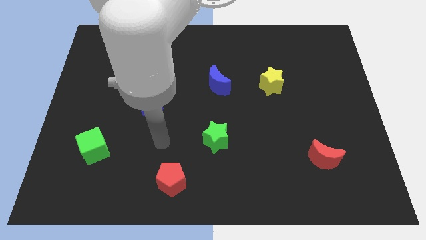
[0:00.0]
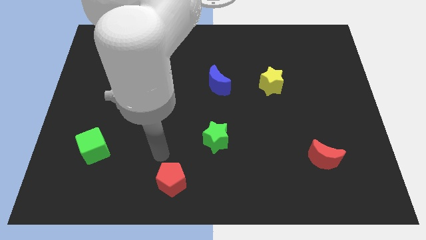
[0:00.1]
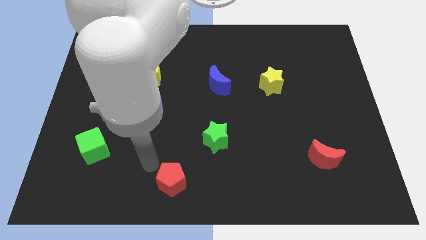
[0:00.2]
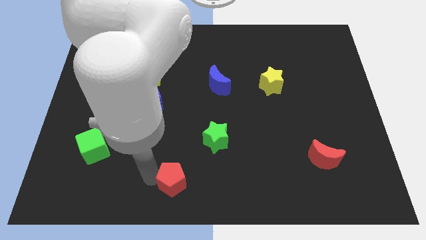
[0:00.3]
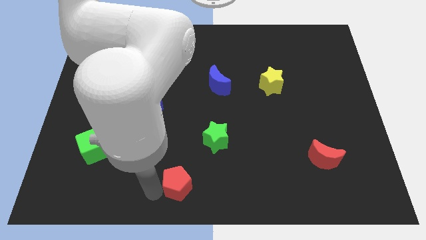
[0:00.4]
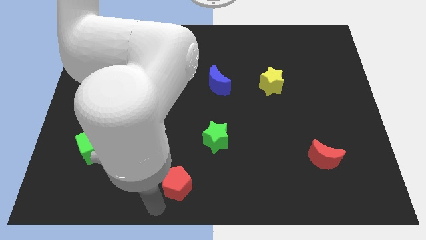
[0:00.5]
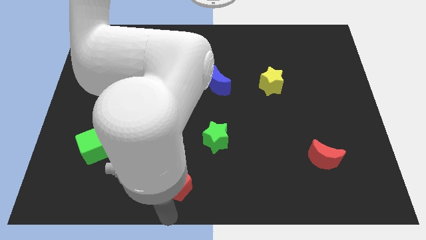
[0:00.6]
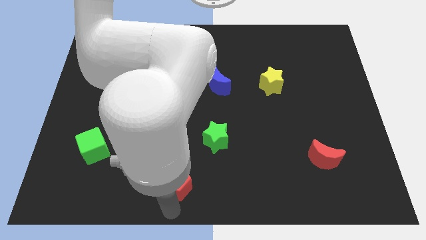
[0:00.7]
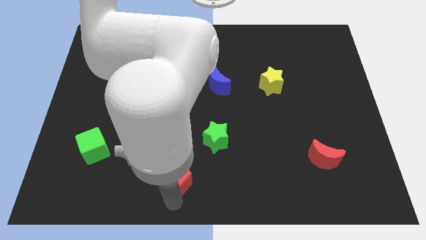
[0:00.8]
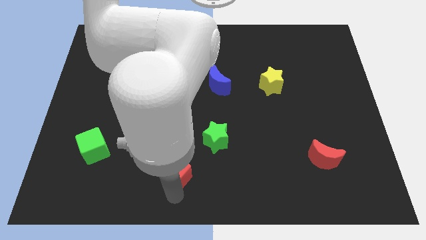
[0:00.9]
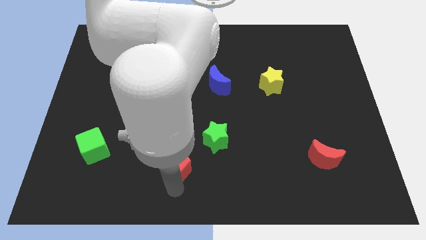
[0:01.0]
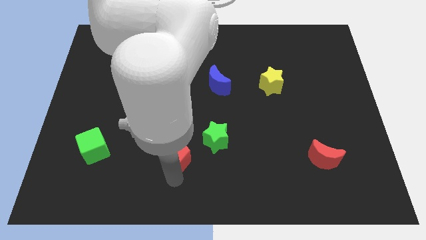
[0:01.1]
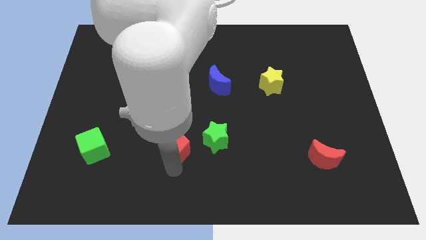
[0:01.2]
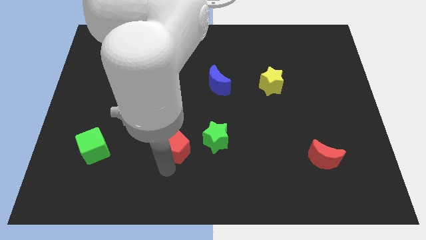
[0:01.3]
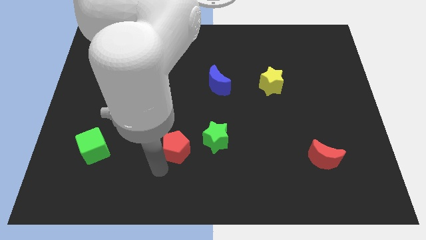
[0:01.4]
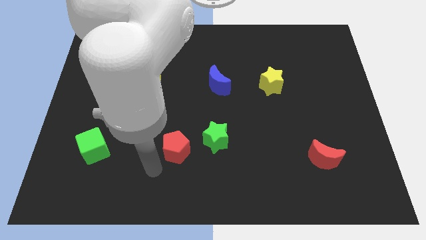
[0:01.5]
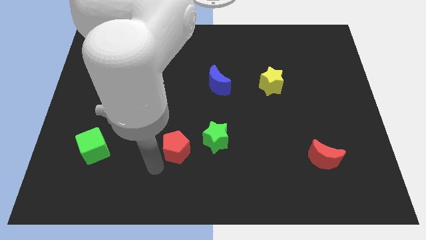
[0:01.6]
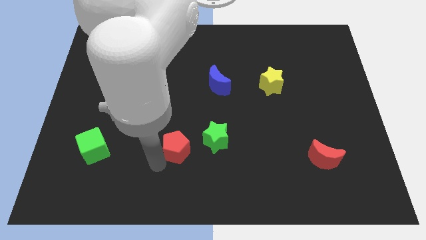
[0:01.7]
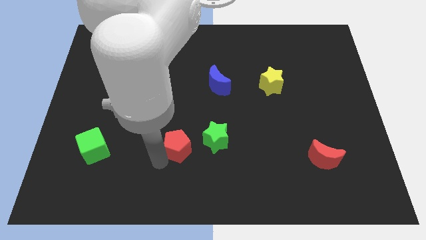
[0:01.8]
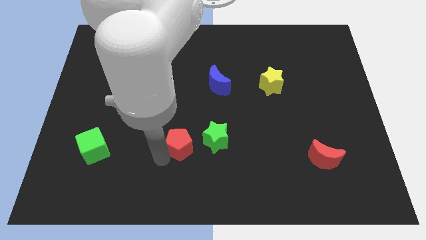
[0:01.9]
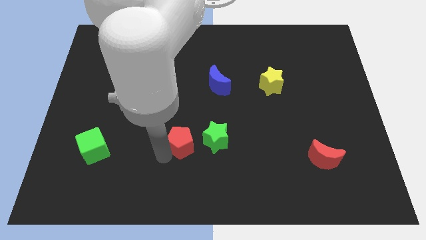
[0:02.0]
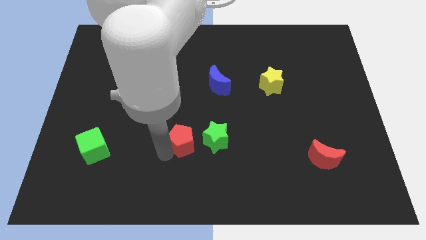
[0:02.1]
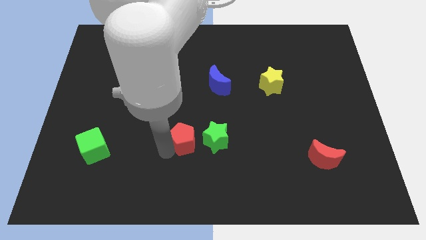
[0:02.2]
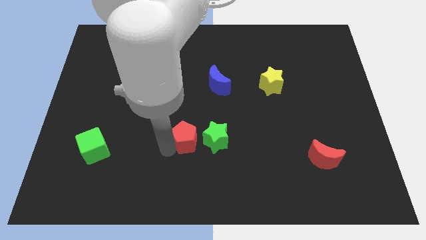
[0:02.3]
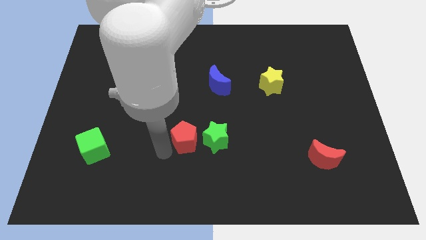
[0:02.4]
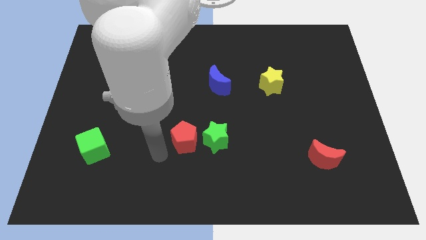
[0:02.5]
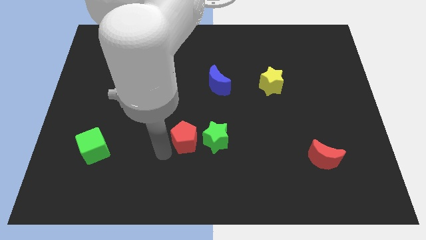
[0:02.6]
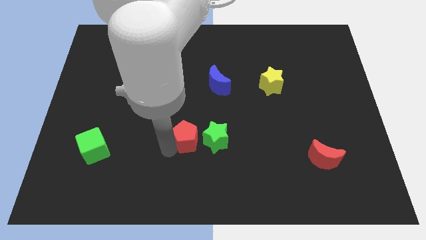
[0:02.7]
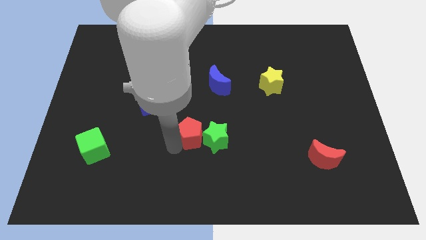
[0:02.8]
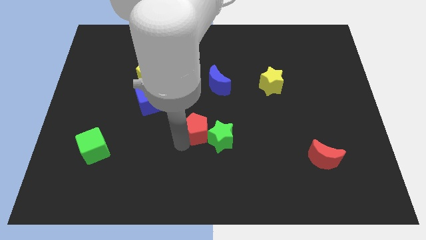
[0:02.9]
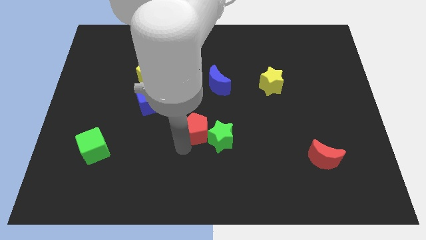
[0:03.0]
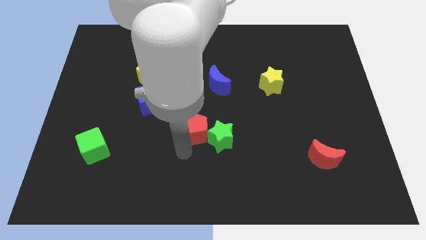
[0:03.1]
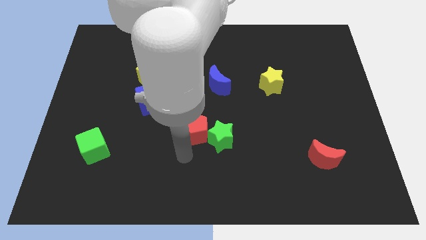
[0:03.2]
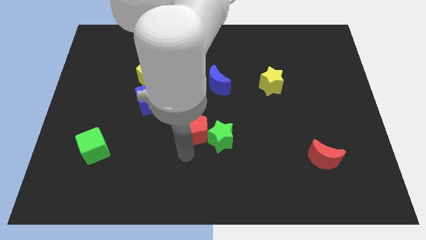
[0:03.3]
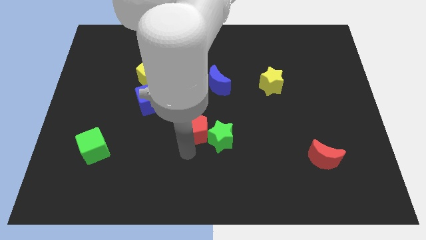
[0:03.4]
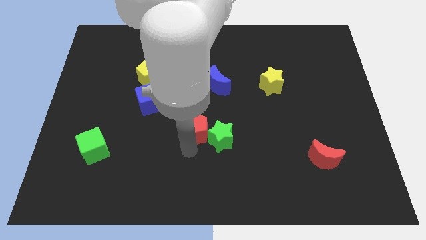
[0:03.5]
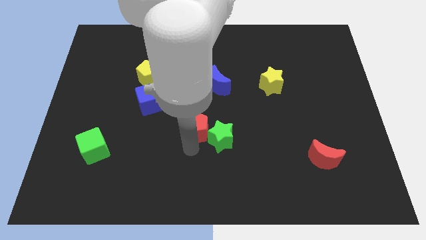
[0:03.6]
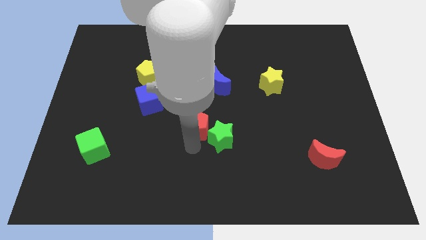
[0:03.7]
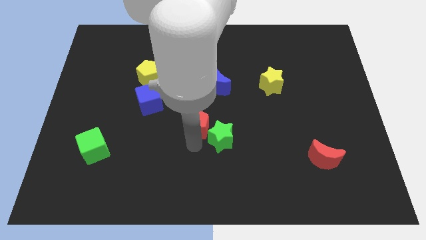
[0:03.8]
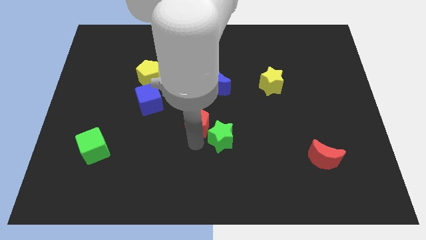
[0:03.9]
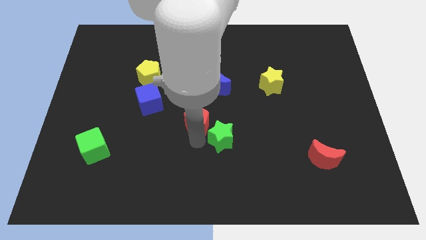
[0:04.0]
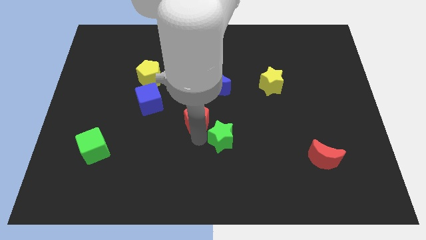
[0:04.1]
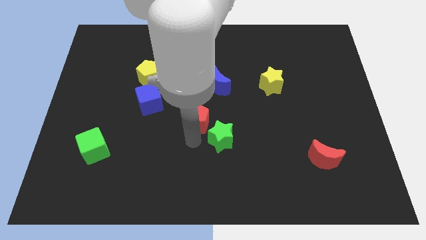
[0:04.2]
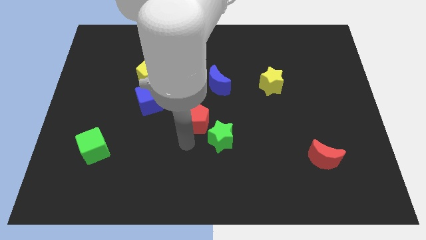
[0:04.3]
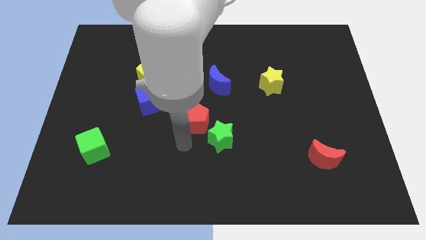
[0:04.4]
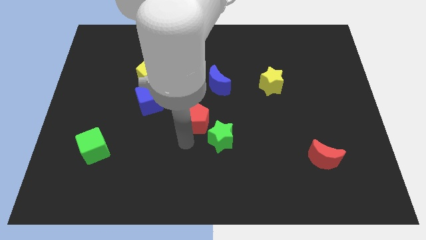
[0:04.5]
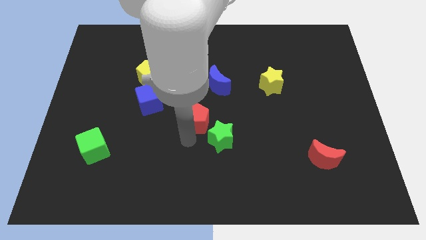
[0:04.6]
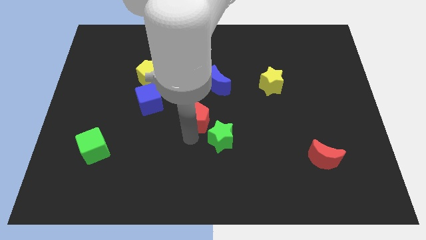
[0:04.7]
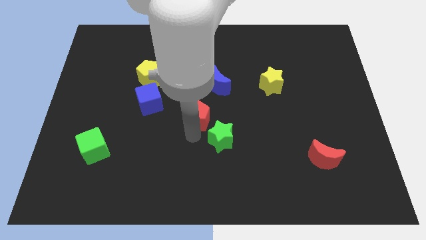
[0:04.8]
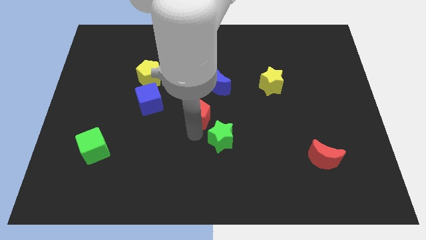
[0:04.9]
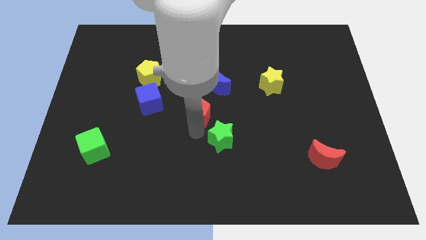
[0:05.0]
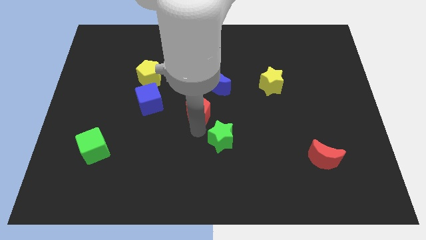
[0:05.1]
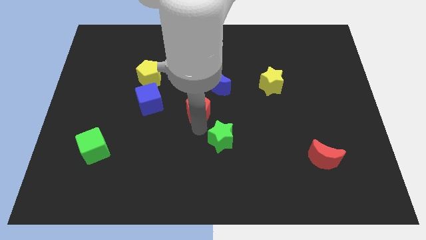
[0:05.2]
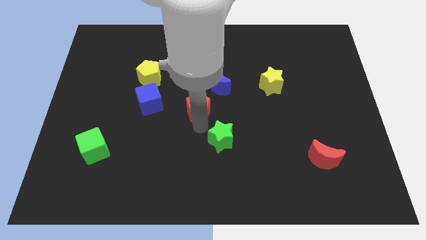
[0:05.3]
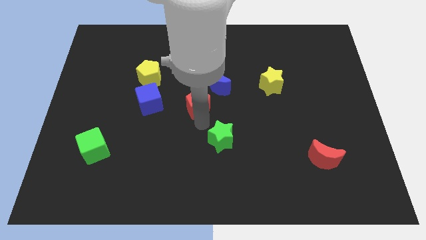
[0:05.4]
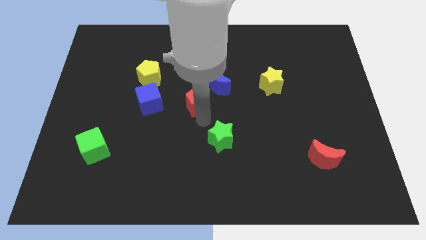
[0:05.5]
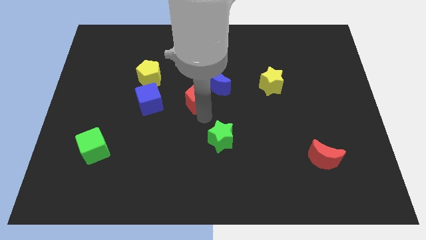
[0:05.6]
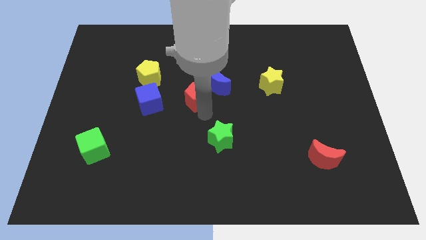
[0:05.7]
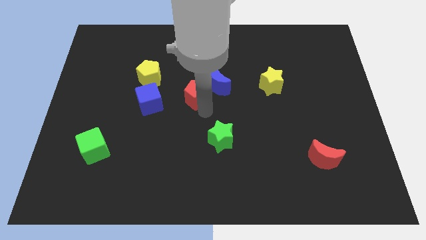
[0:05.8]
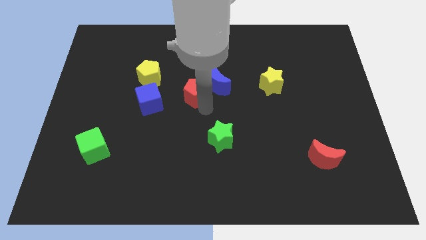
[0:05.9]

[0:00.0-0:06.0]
push the red pentagon next to the blue moon

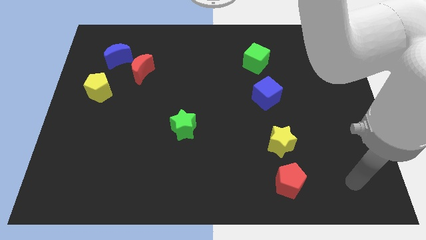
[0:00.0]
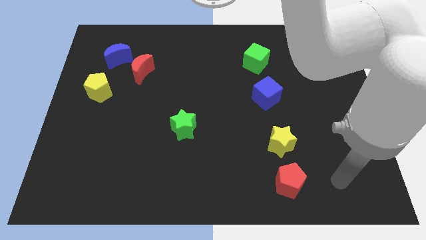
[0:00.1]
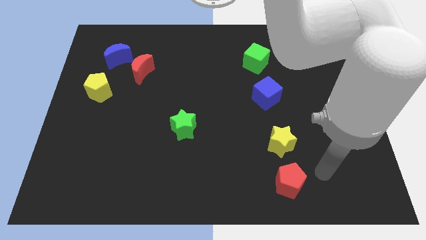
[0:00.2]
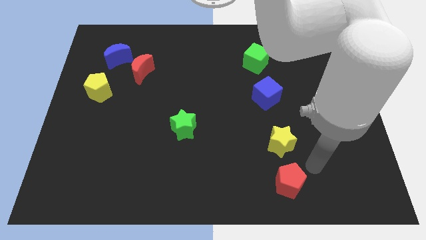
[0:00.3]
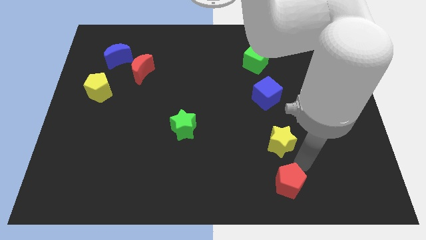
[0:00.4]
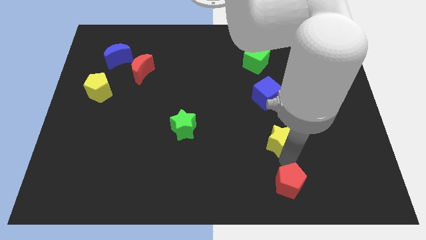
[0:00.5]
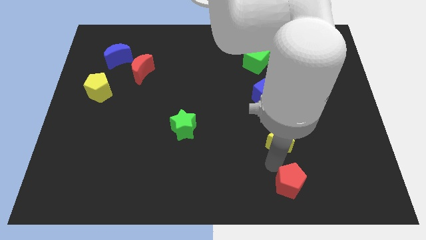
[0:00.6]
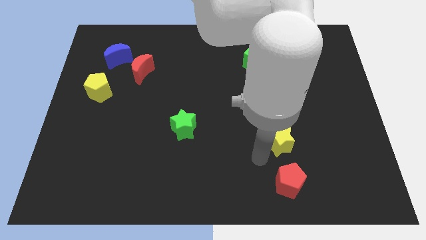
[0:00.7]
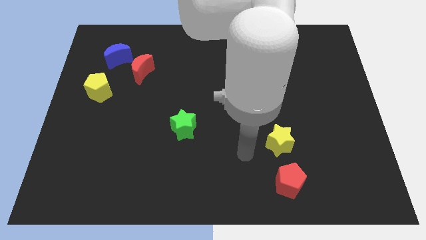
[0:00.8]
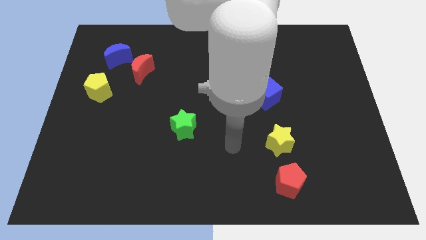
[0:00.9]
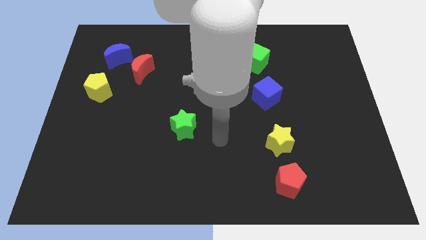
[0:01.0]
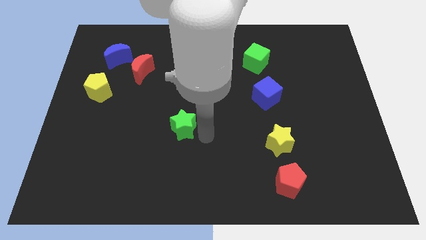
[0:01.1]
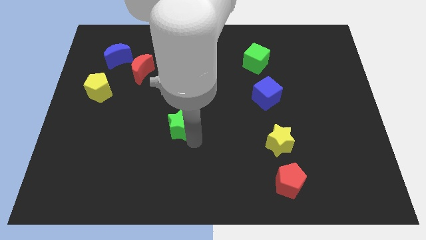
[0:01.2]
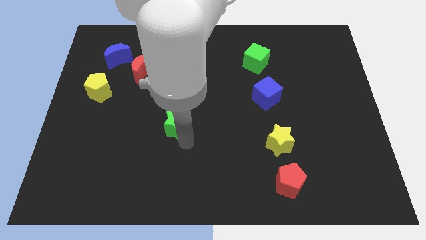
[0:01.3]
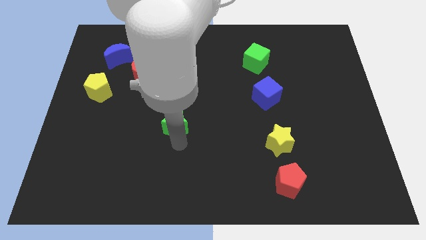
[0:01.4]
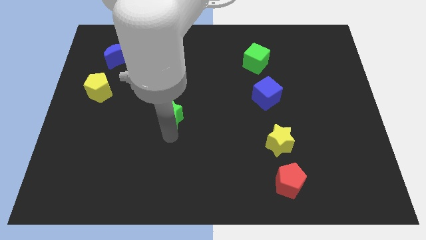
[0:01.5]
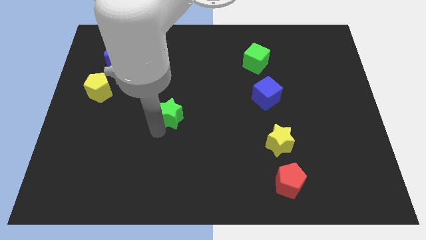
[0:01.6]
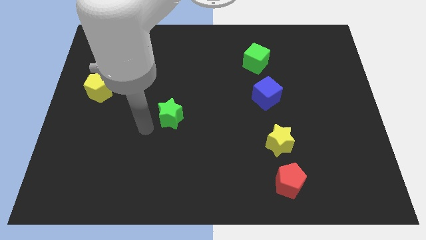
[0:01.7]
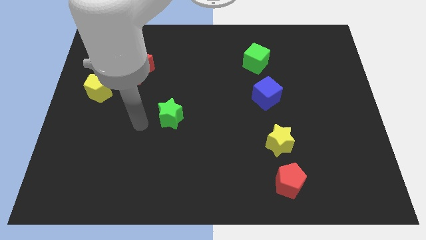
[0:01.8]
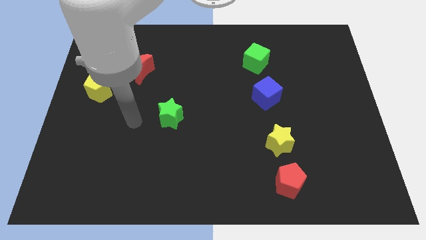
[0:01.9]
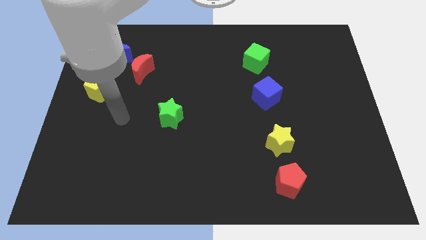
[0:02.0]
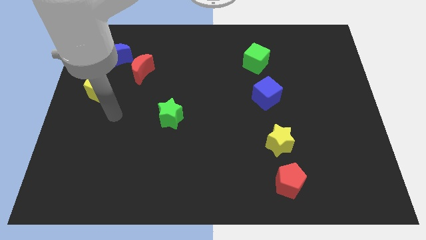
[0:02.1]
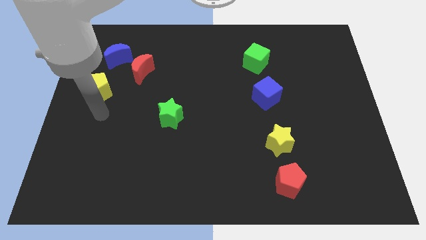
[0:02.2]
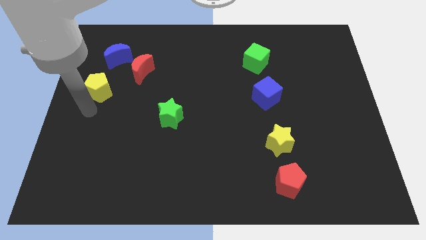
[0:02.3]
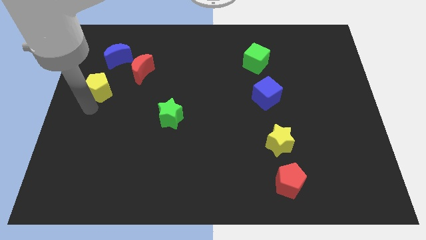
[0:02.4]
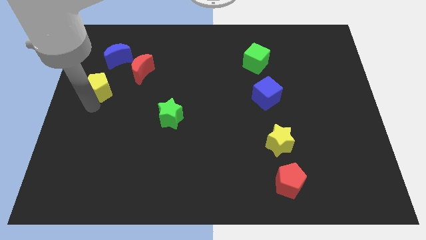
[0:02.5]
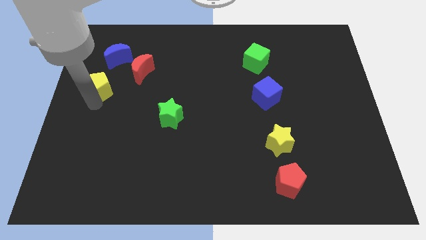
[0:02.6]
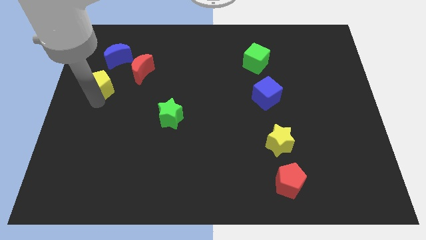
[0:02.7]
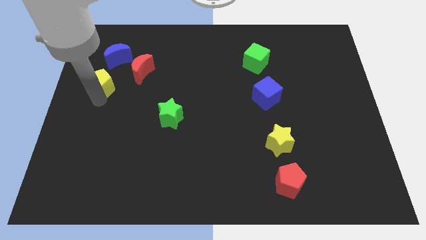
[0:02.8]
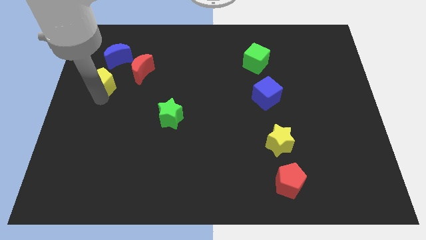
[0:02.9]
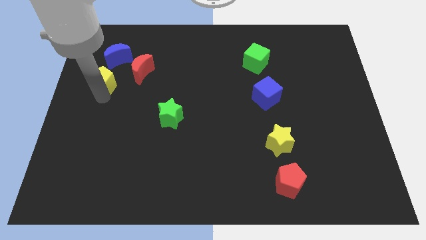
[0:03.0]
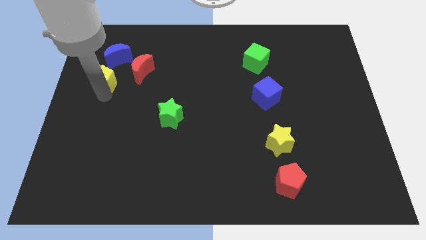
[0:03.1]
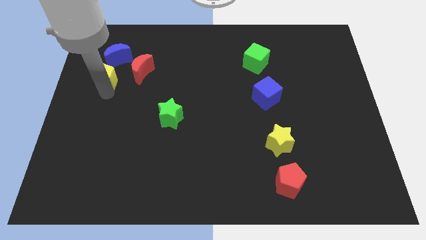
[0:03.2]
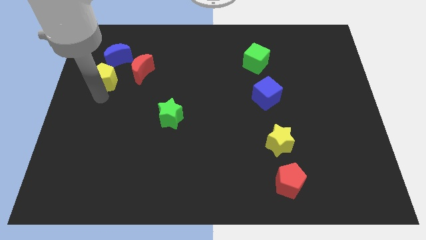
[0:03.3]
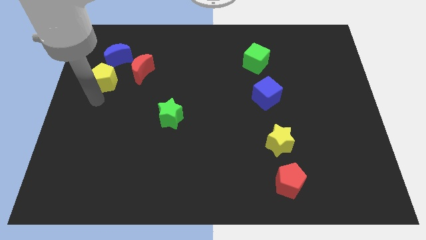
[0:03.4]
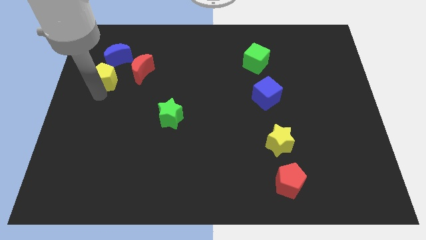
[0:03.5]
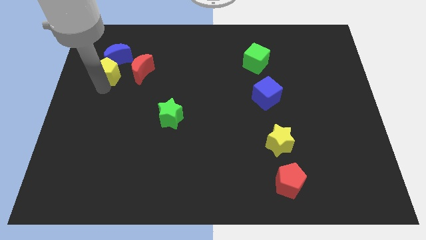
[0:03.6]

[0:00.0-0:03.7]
slide the yellow pentagon to the blue moon
